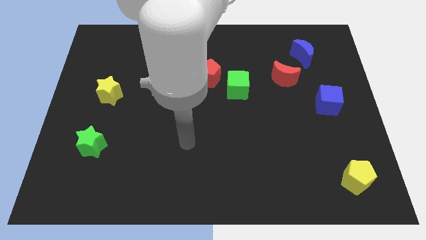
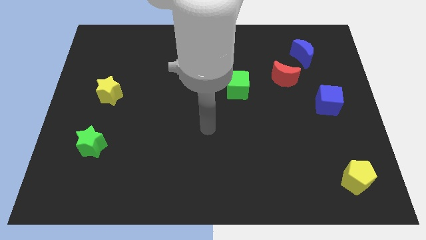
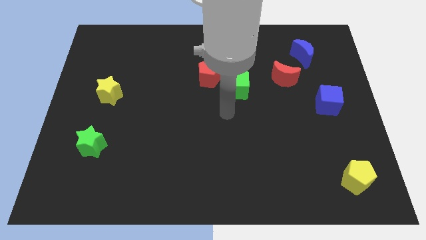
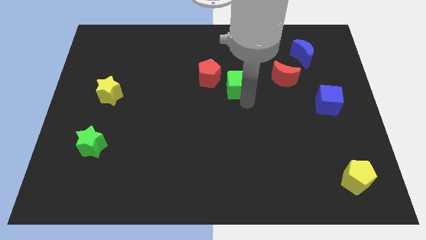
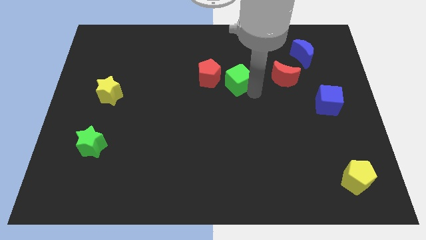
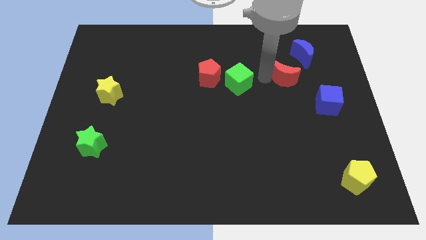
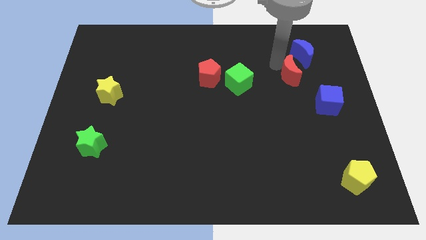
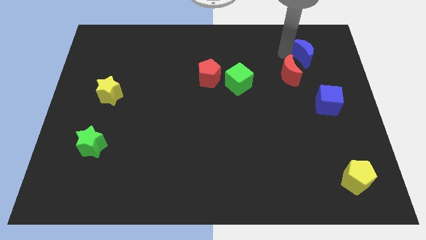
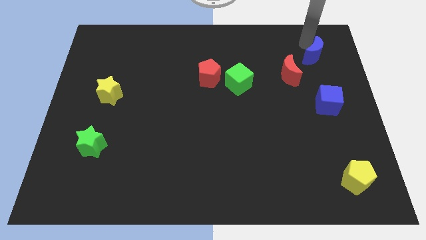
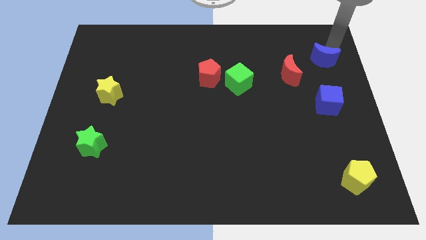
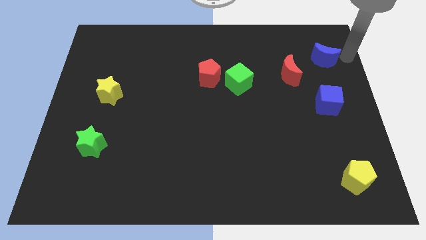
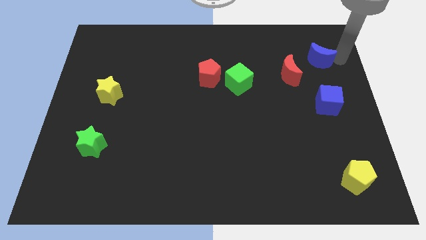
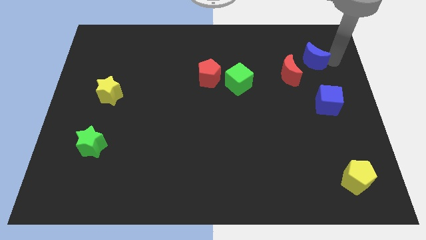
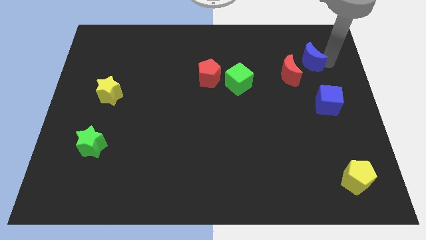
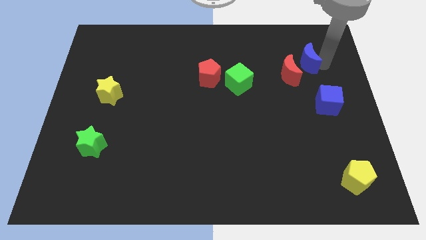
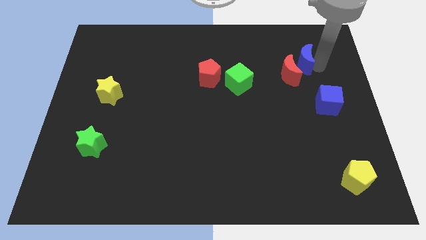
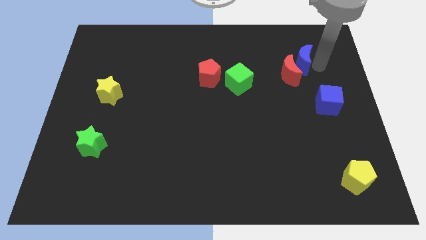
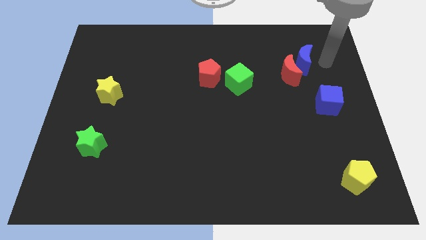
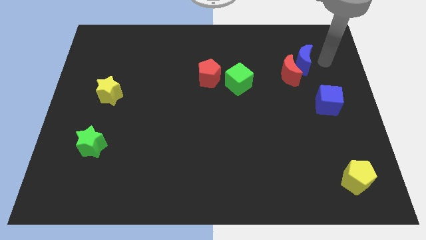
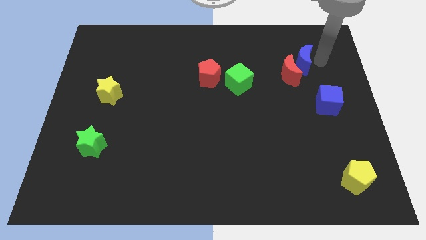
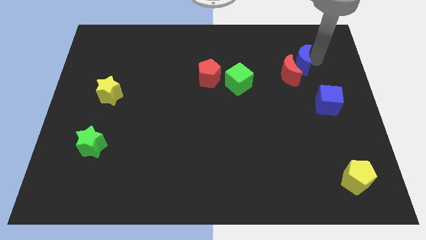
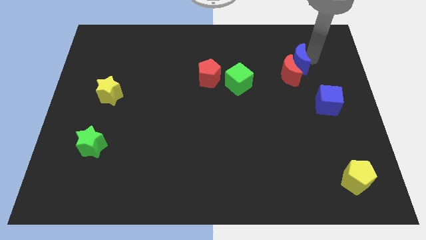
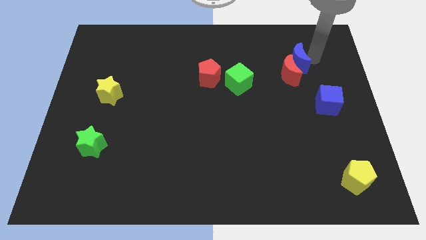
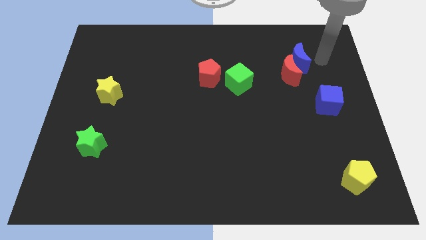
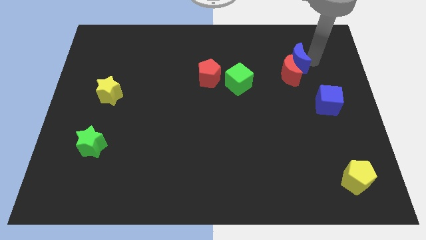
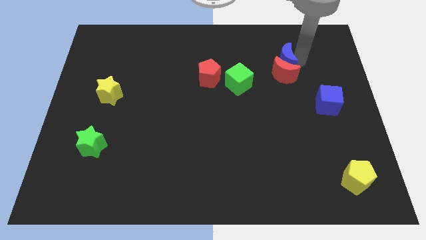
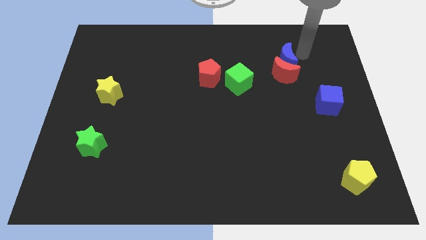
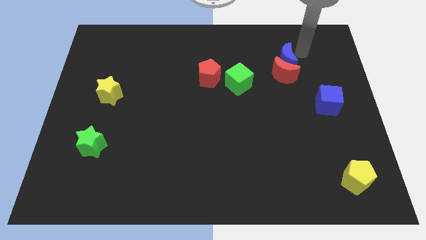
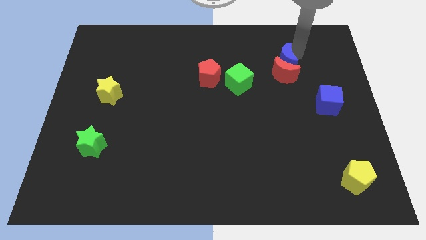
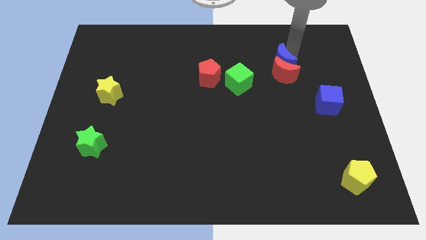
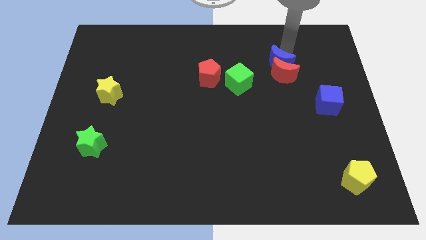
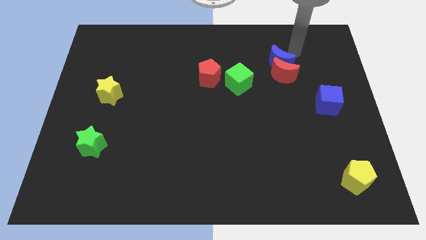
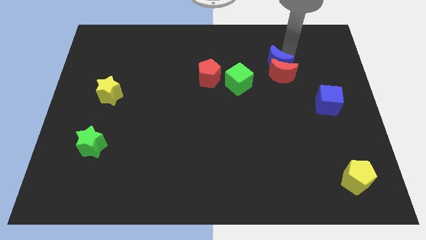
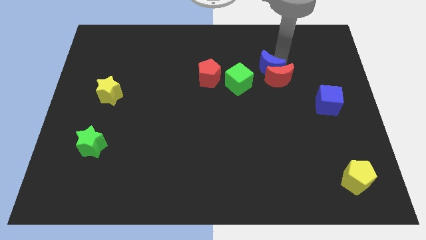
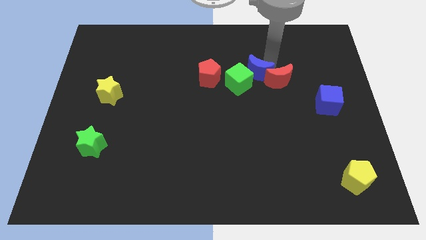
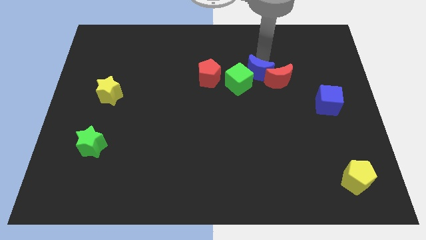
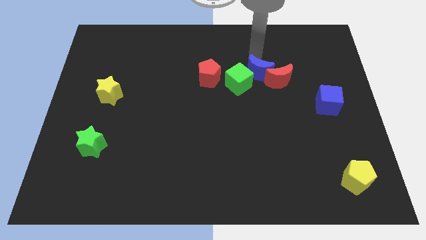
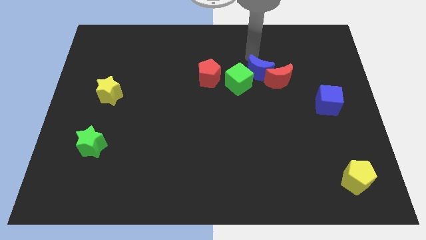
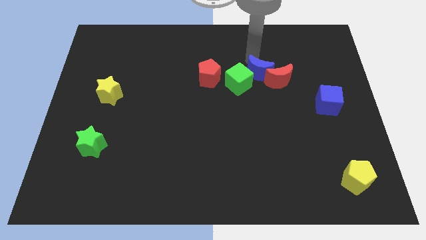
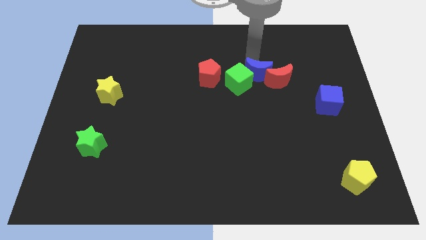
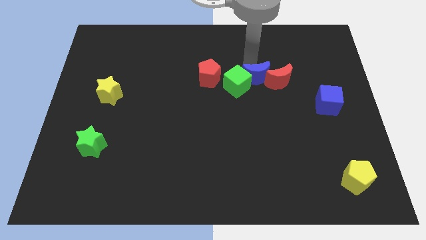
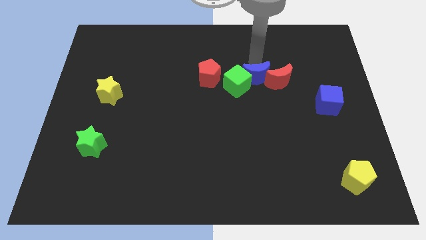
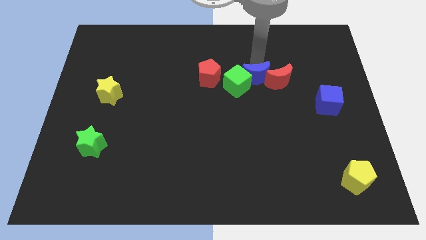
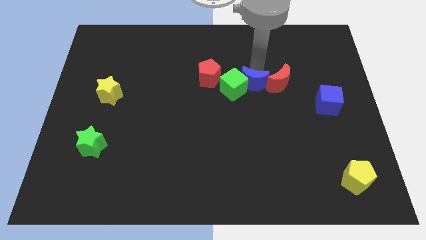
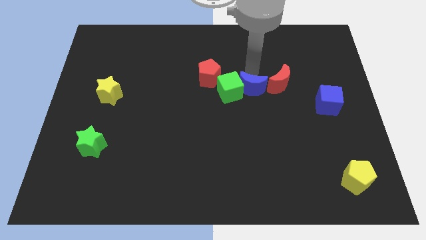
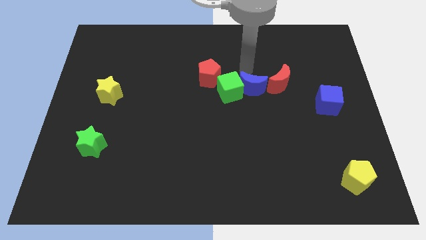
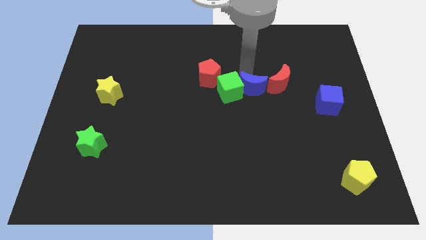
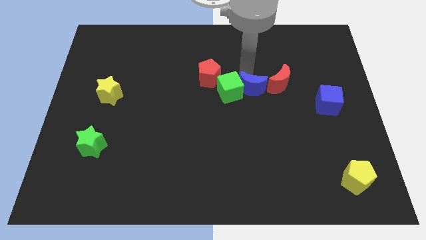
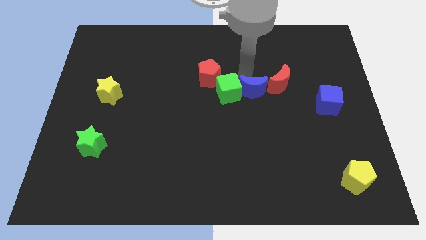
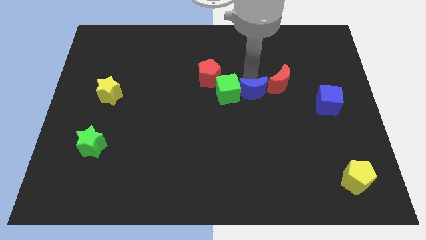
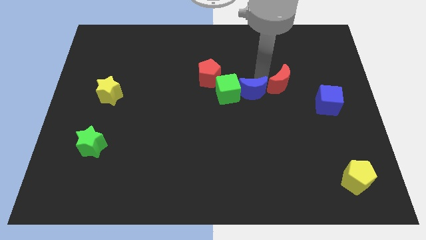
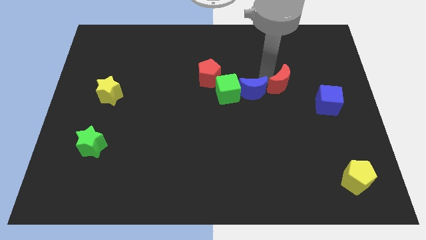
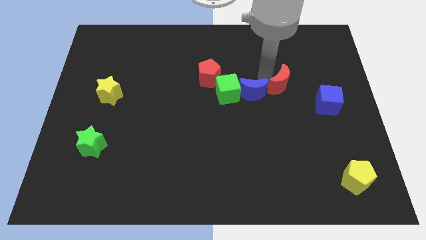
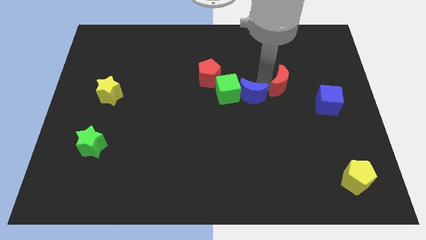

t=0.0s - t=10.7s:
slide the blue moon downwards and to the left

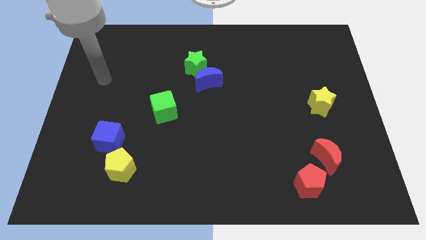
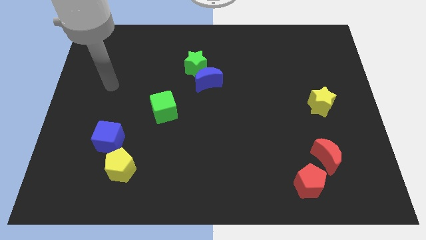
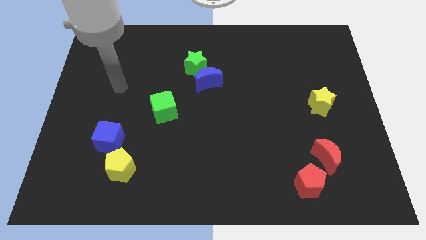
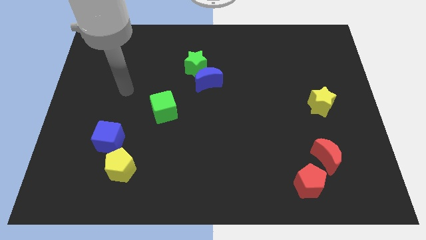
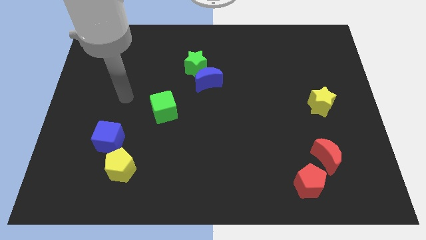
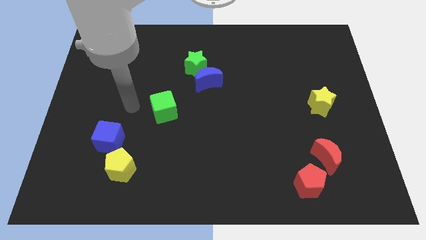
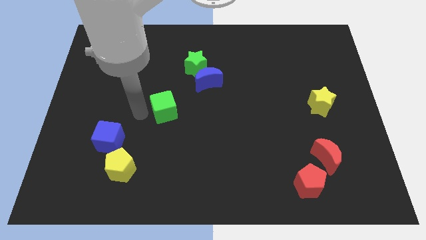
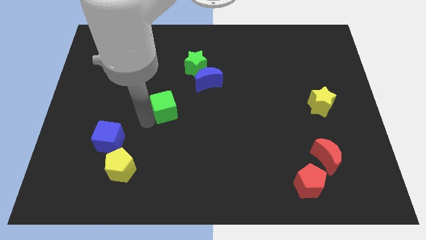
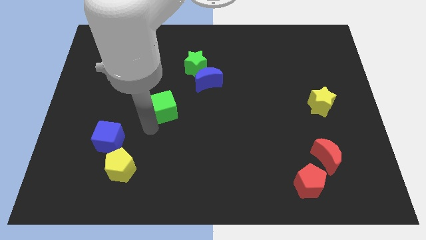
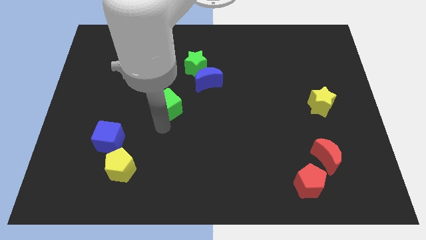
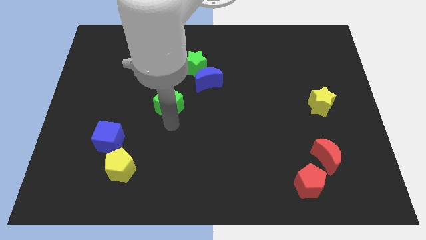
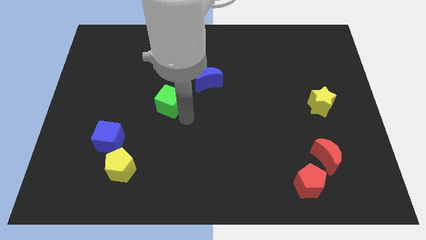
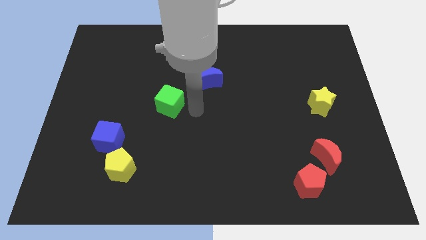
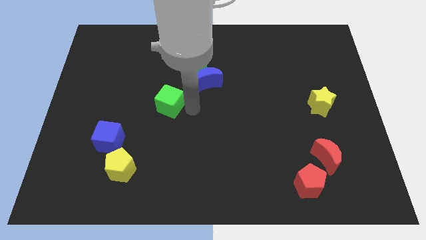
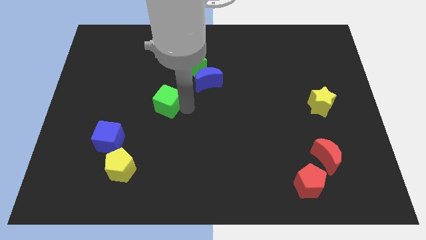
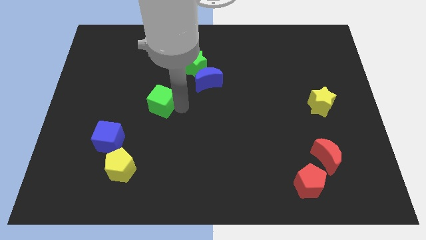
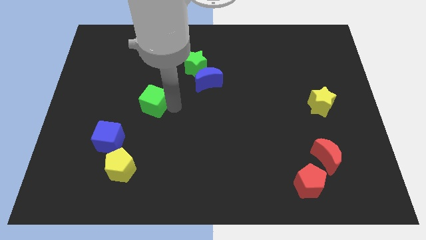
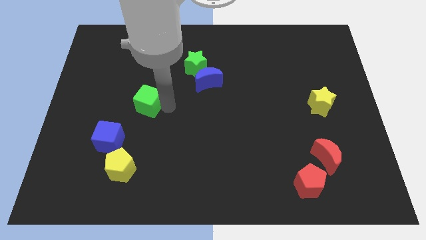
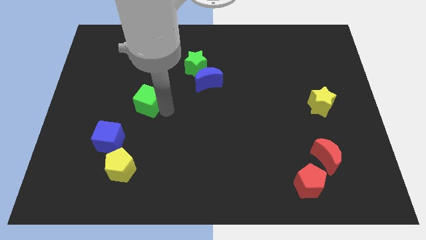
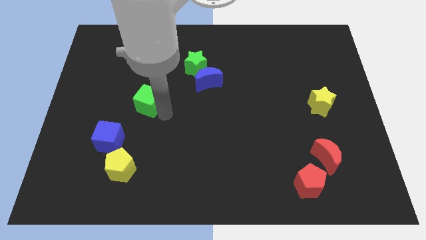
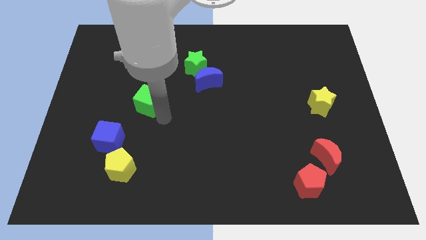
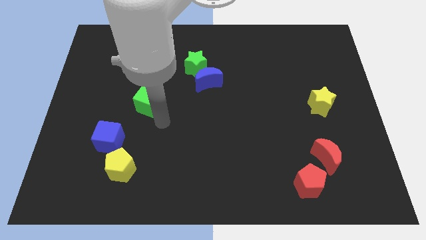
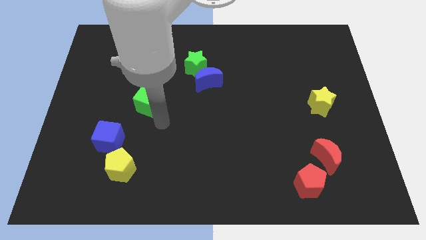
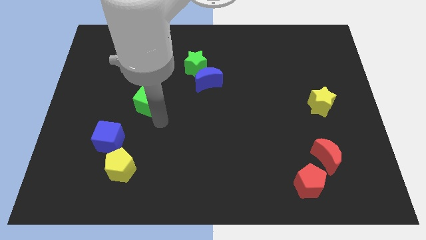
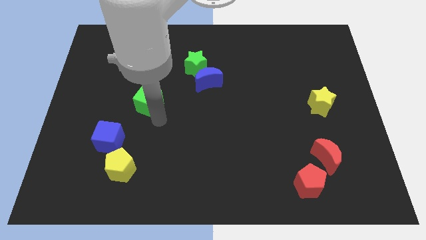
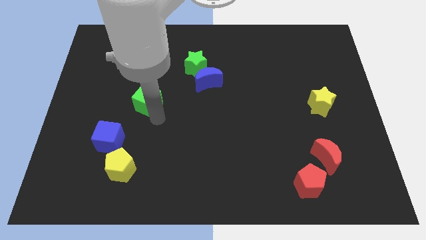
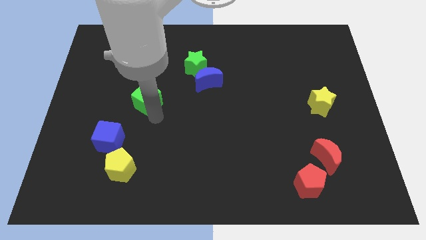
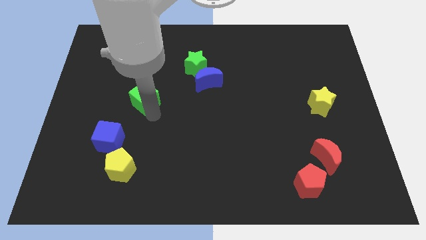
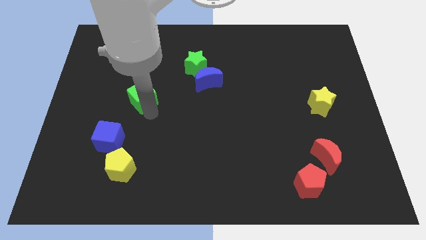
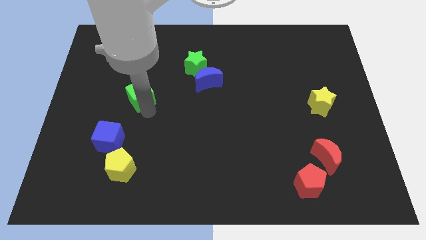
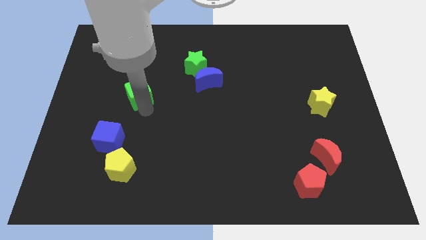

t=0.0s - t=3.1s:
move the green cube up and to the left somewhat
